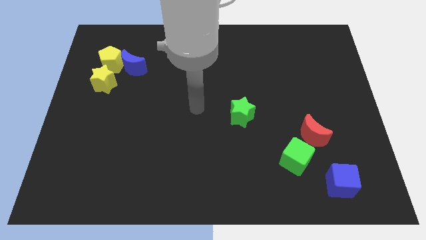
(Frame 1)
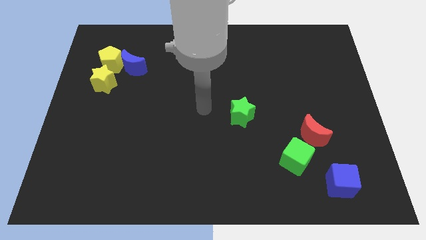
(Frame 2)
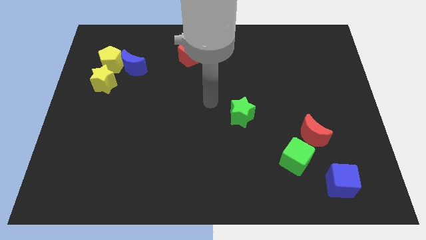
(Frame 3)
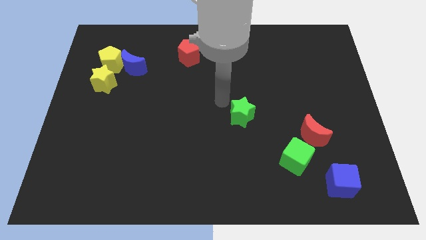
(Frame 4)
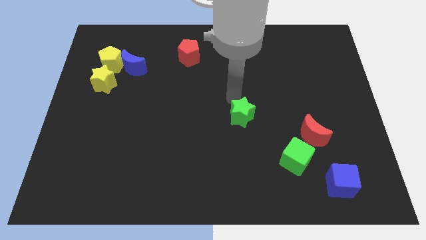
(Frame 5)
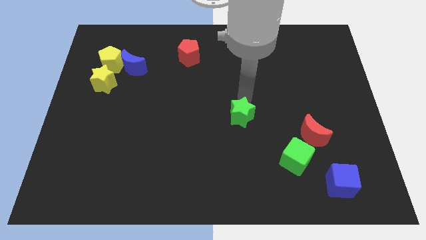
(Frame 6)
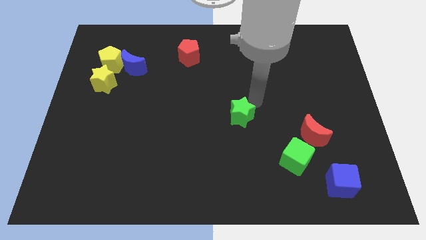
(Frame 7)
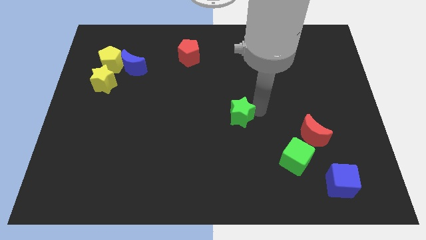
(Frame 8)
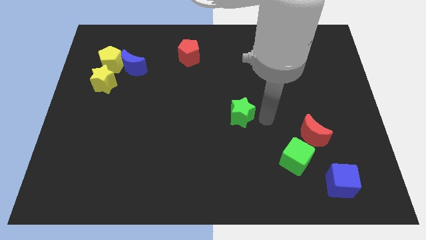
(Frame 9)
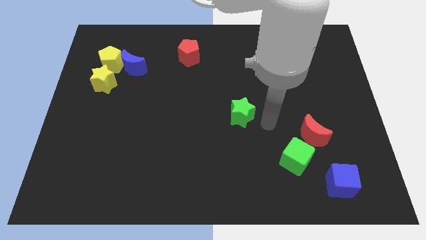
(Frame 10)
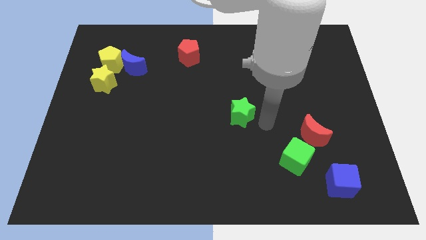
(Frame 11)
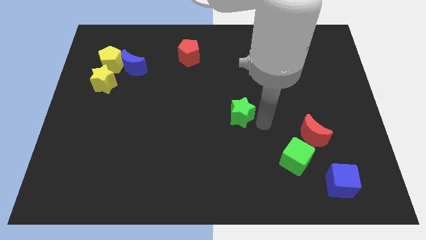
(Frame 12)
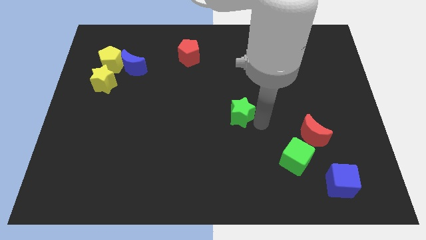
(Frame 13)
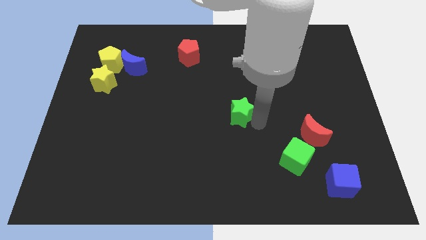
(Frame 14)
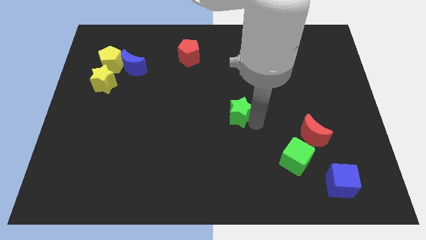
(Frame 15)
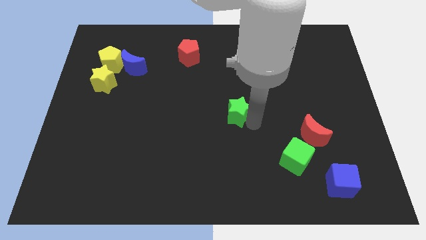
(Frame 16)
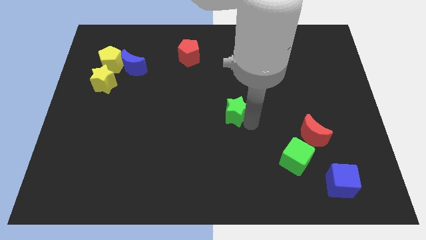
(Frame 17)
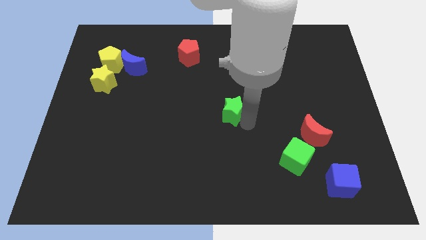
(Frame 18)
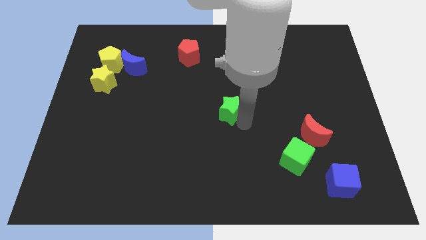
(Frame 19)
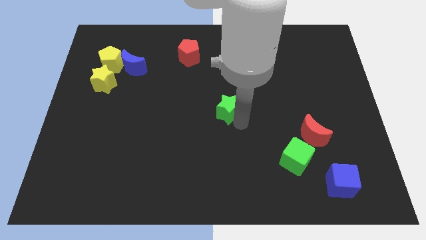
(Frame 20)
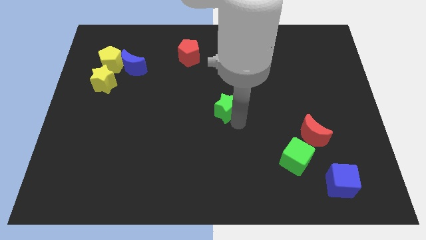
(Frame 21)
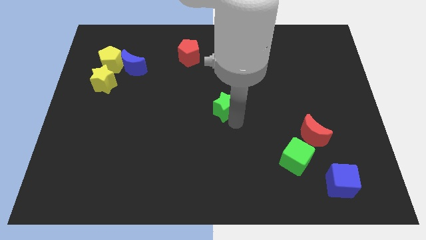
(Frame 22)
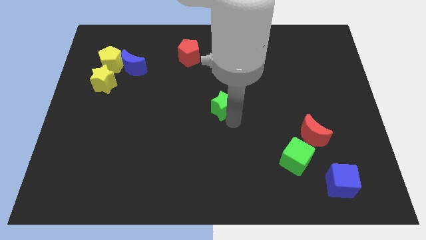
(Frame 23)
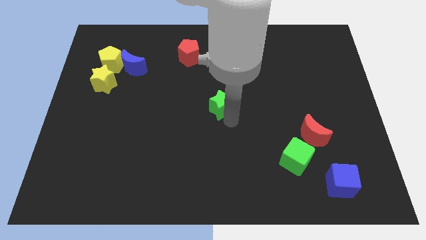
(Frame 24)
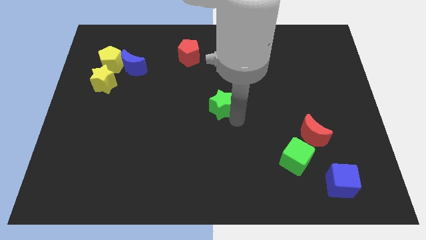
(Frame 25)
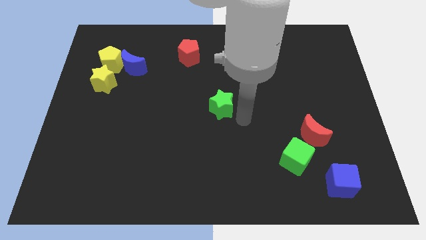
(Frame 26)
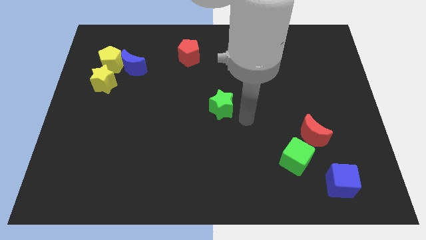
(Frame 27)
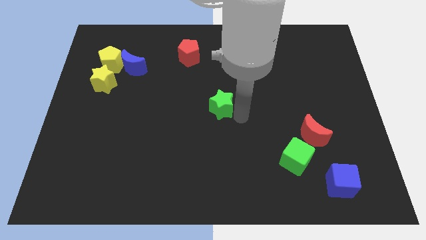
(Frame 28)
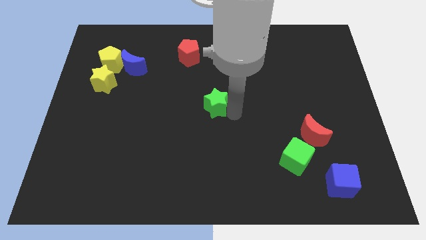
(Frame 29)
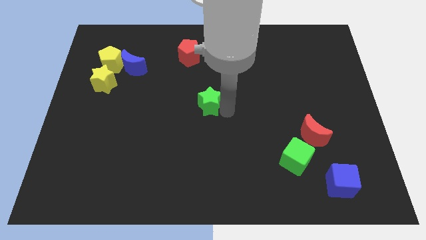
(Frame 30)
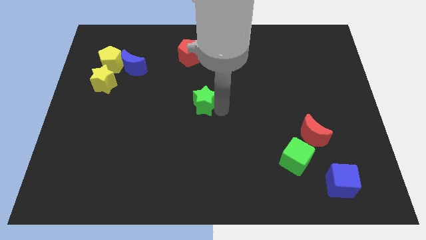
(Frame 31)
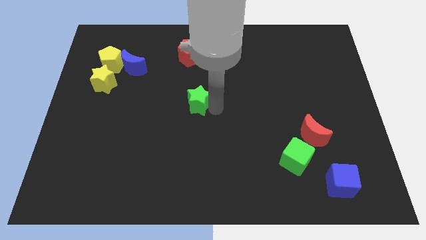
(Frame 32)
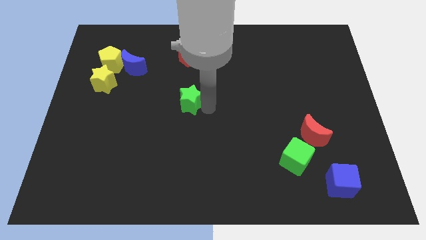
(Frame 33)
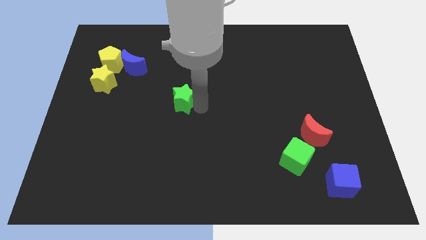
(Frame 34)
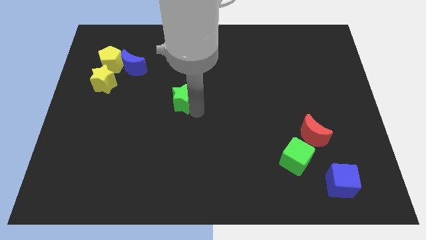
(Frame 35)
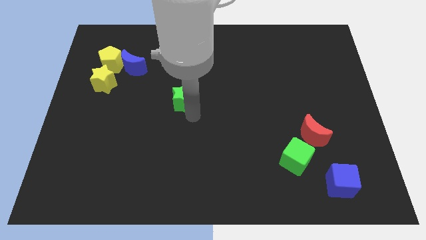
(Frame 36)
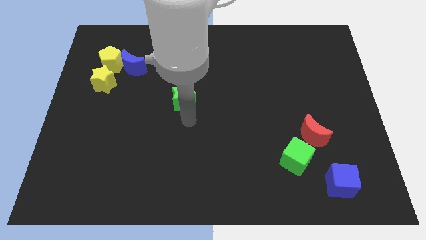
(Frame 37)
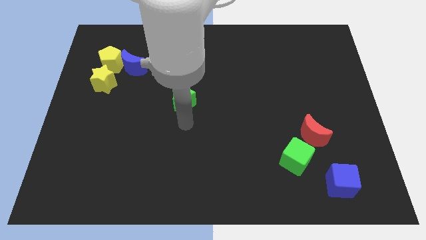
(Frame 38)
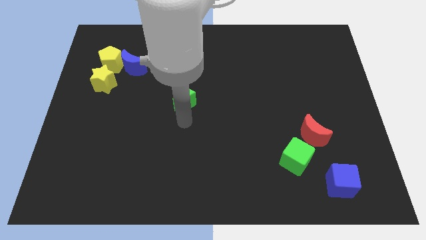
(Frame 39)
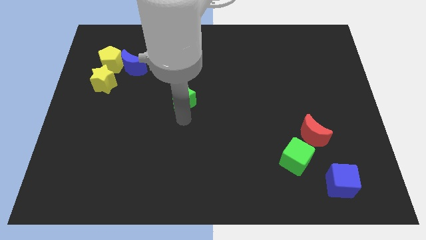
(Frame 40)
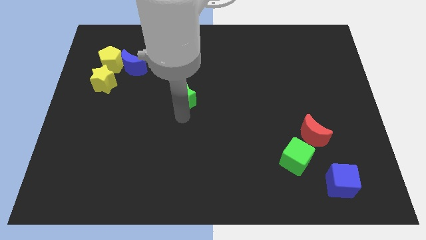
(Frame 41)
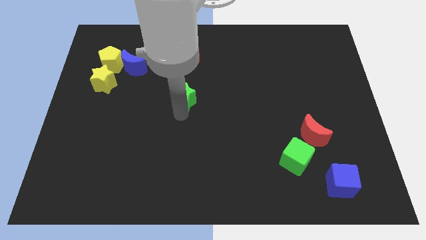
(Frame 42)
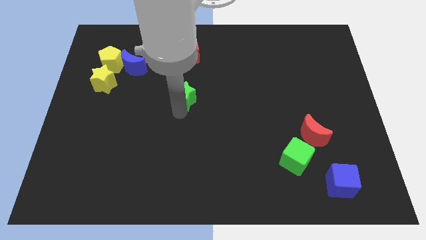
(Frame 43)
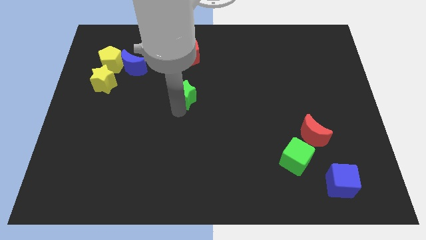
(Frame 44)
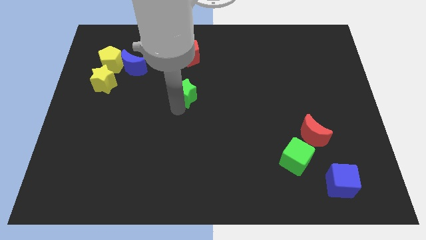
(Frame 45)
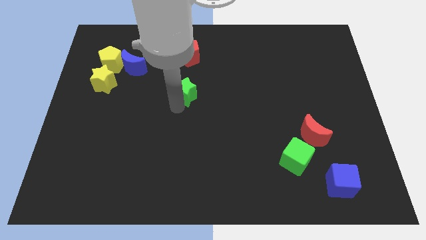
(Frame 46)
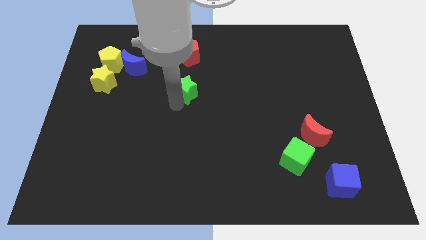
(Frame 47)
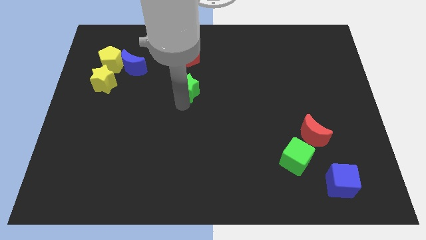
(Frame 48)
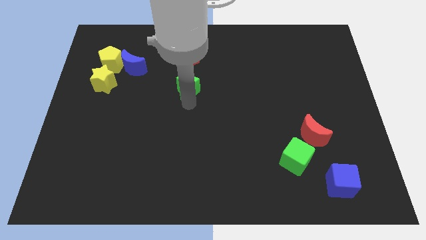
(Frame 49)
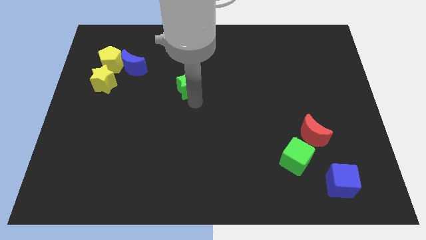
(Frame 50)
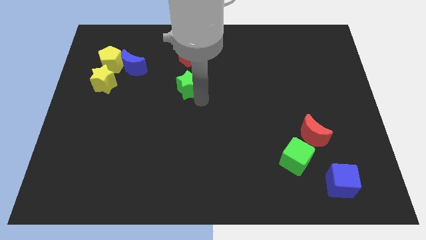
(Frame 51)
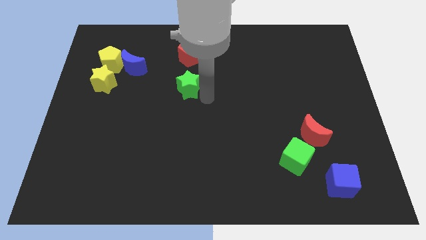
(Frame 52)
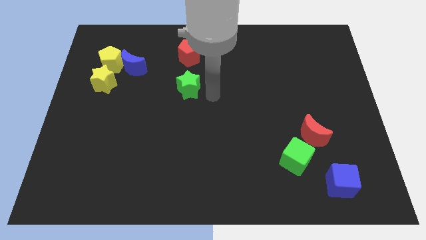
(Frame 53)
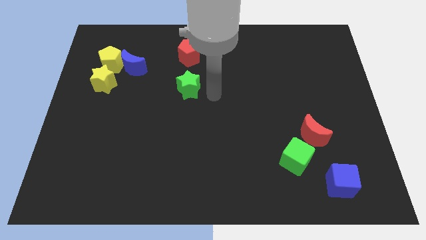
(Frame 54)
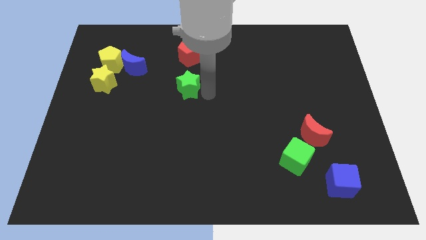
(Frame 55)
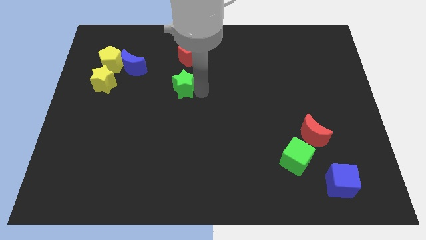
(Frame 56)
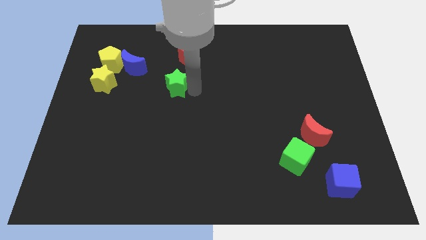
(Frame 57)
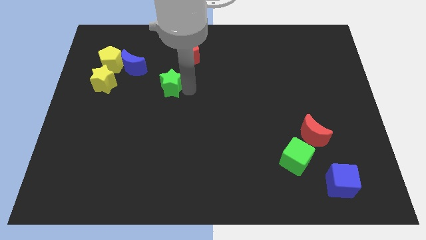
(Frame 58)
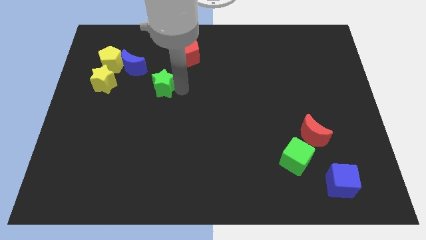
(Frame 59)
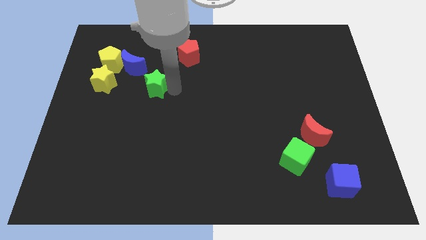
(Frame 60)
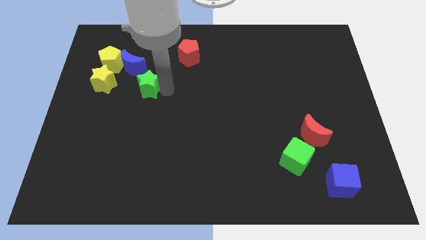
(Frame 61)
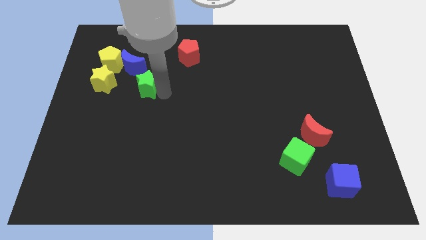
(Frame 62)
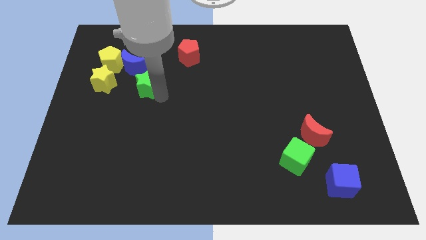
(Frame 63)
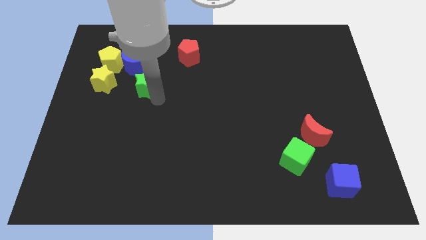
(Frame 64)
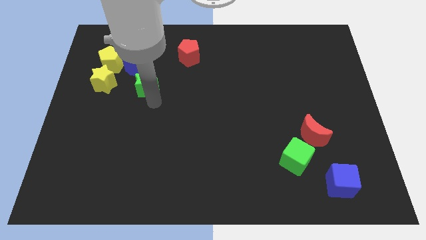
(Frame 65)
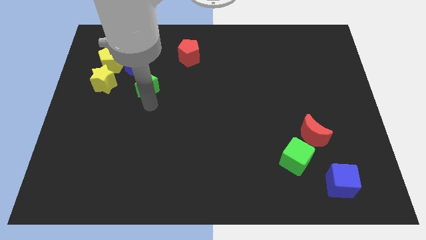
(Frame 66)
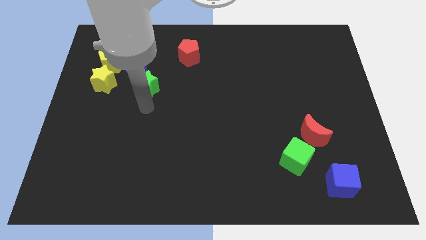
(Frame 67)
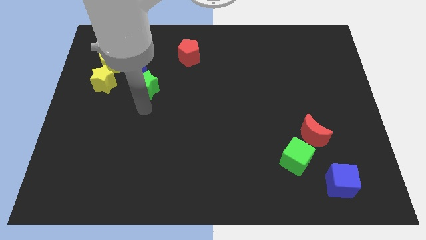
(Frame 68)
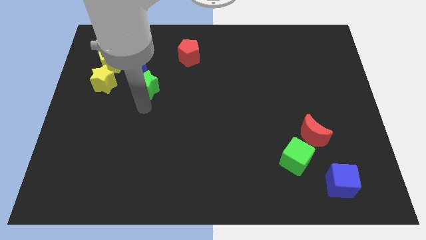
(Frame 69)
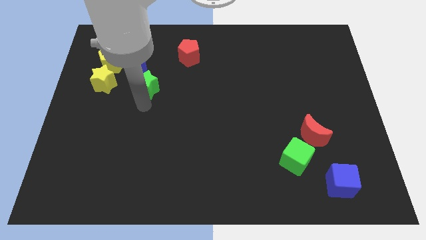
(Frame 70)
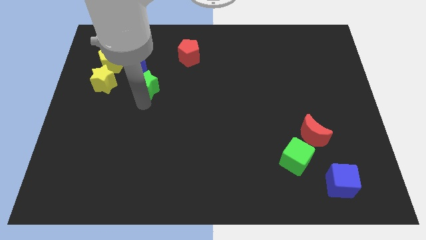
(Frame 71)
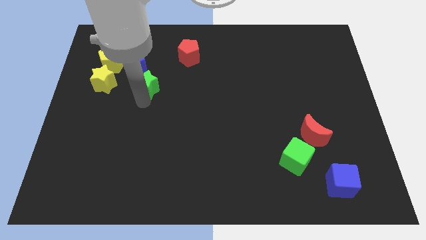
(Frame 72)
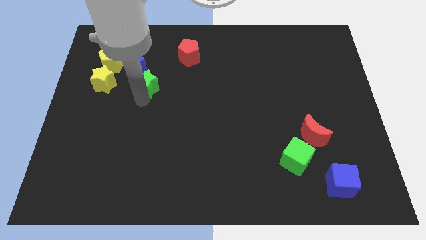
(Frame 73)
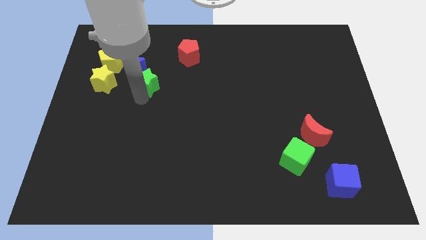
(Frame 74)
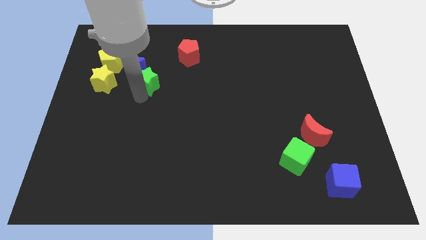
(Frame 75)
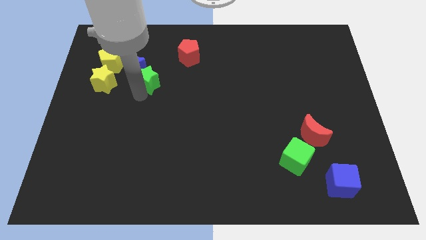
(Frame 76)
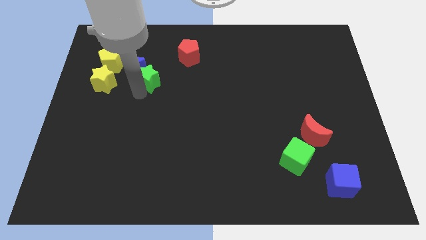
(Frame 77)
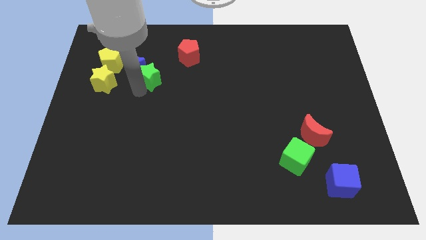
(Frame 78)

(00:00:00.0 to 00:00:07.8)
push the green star next to the blue moon
